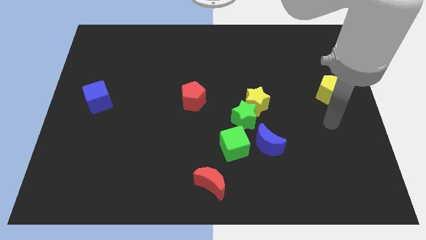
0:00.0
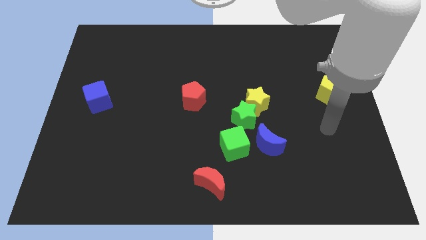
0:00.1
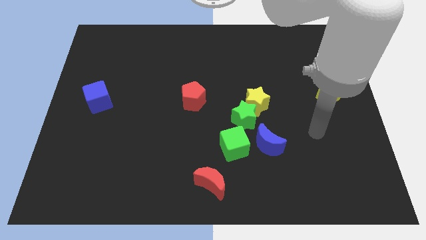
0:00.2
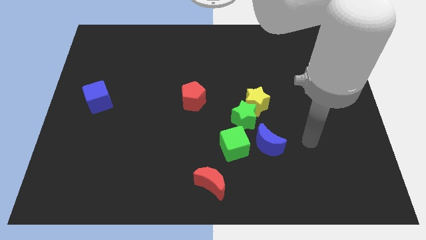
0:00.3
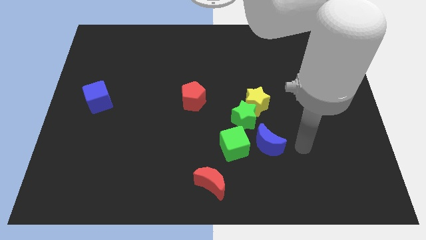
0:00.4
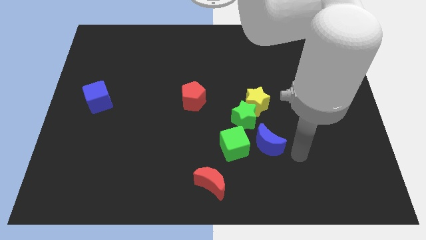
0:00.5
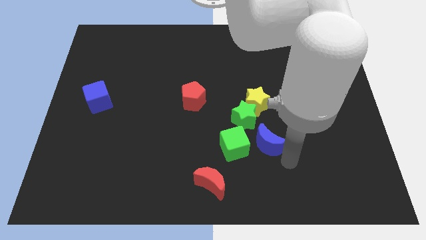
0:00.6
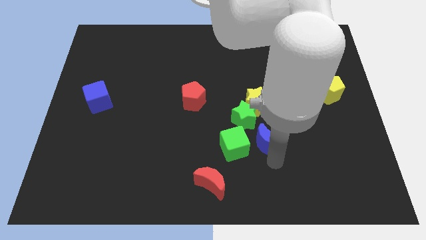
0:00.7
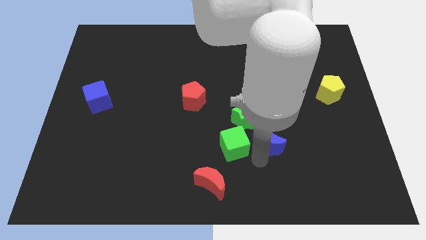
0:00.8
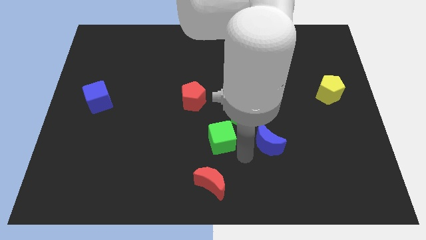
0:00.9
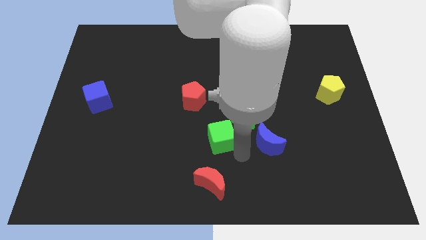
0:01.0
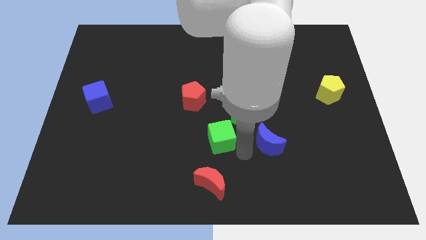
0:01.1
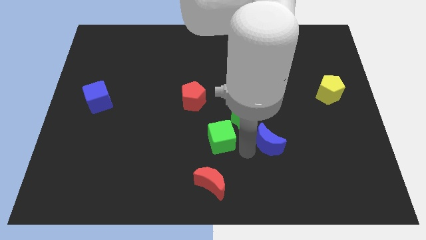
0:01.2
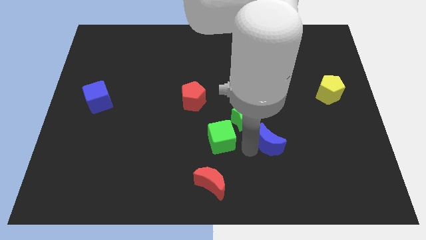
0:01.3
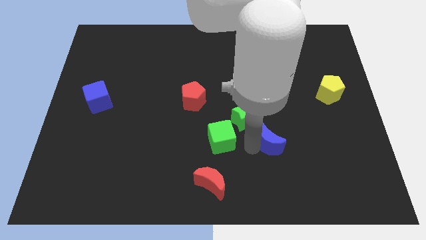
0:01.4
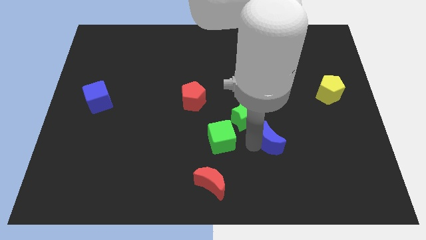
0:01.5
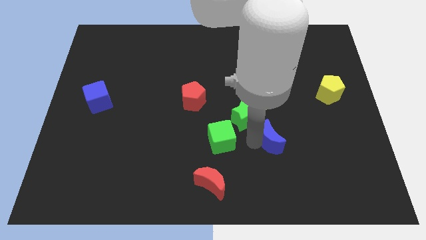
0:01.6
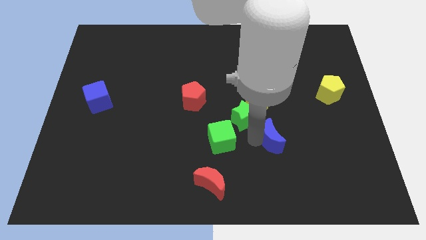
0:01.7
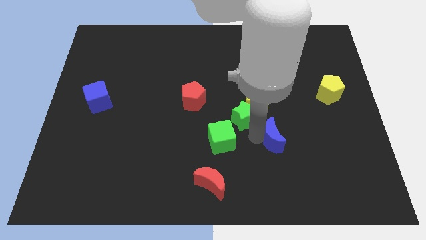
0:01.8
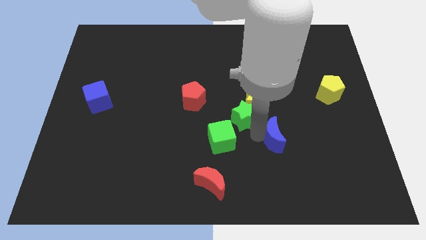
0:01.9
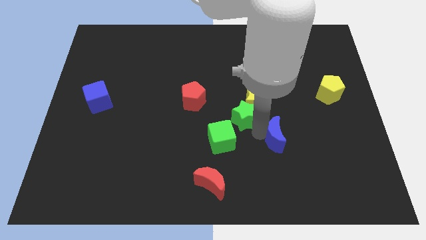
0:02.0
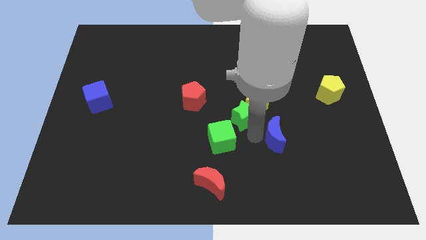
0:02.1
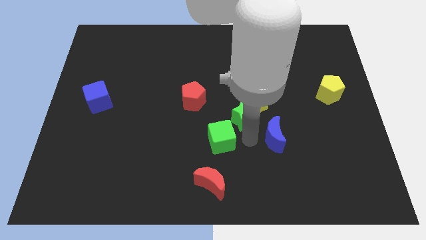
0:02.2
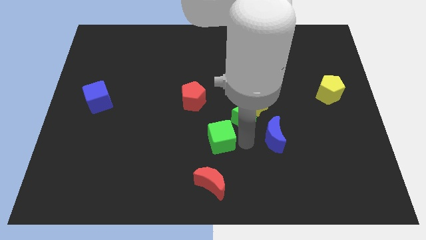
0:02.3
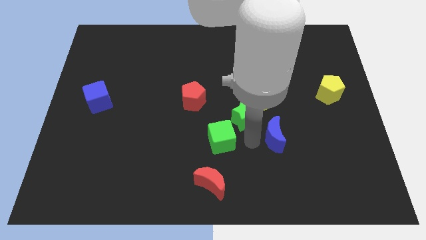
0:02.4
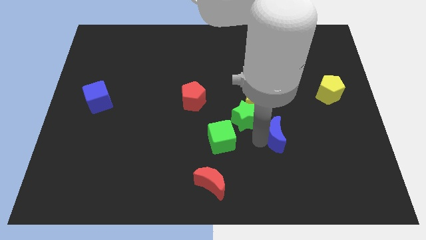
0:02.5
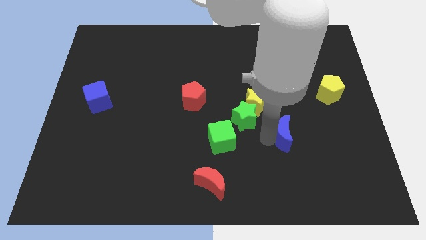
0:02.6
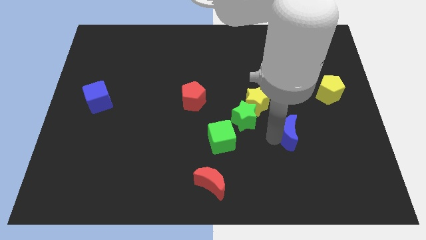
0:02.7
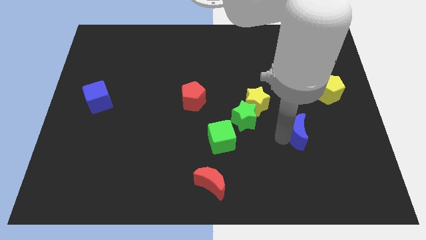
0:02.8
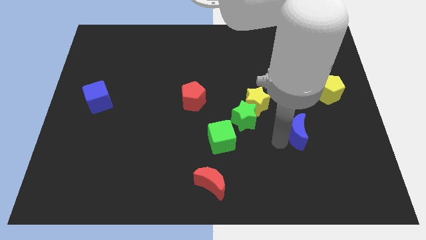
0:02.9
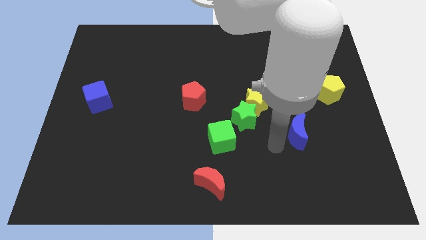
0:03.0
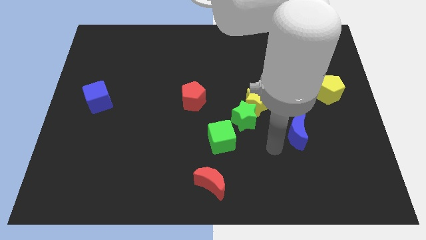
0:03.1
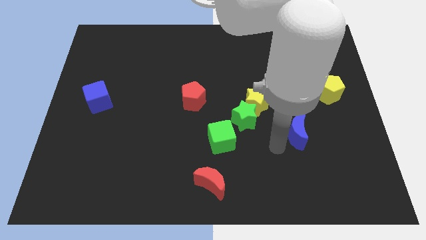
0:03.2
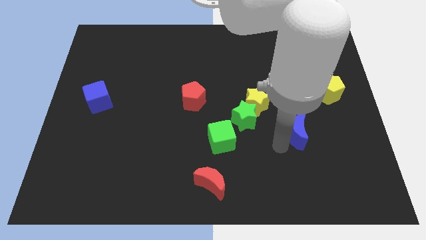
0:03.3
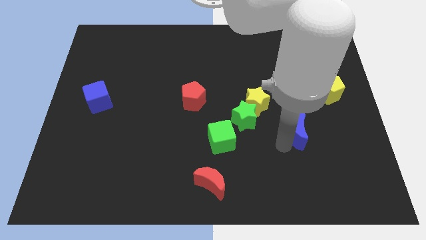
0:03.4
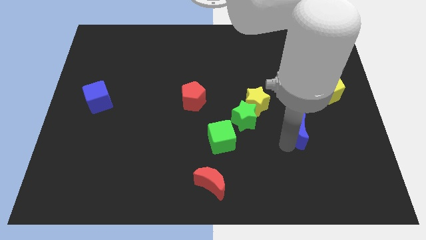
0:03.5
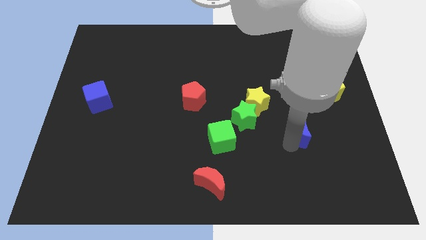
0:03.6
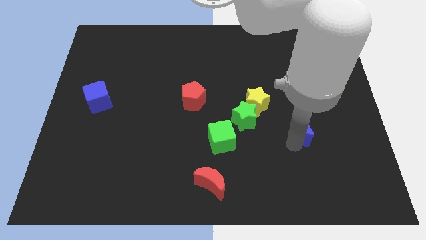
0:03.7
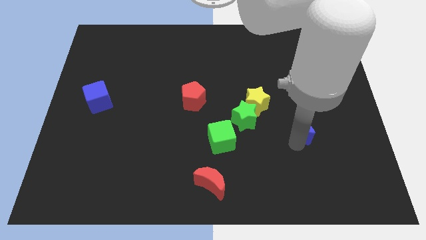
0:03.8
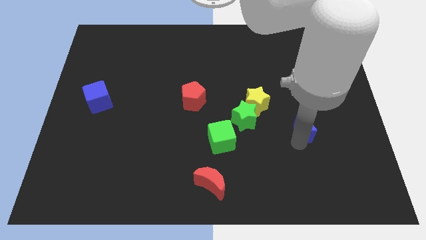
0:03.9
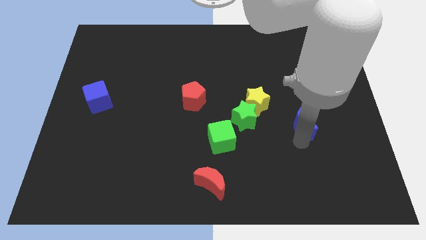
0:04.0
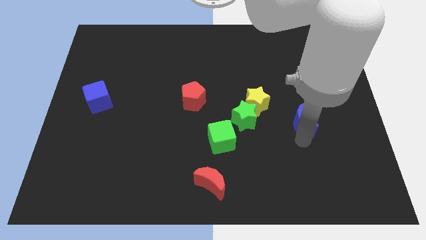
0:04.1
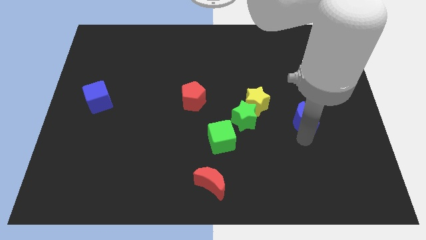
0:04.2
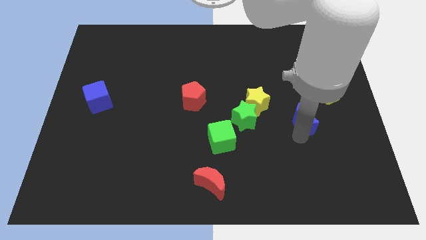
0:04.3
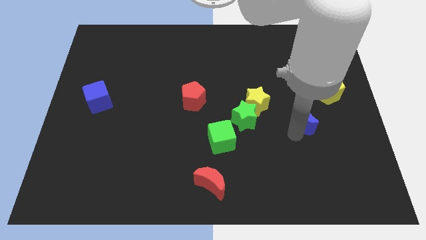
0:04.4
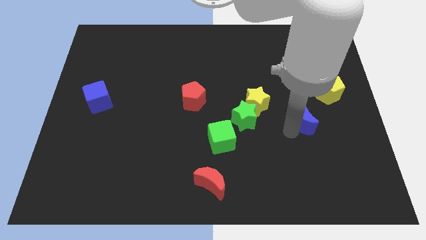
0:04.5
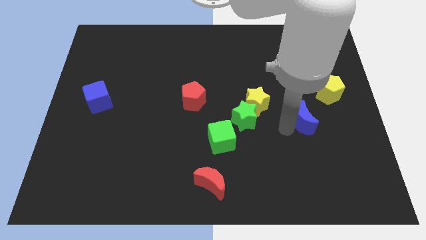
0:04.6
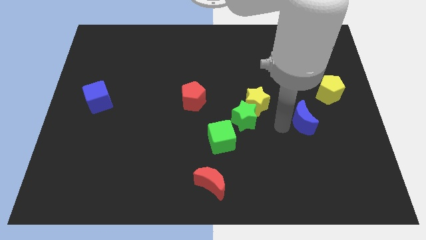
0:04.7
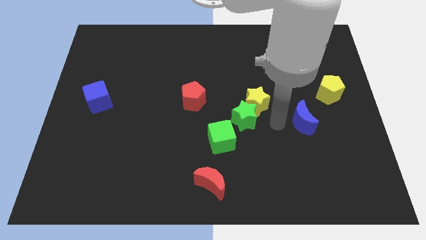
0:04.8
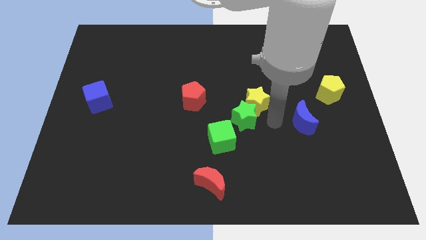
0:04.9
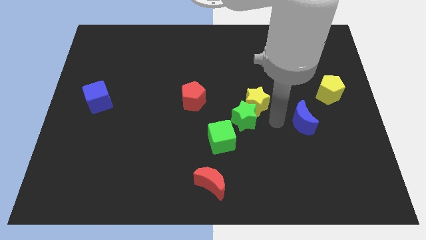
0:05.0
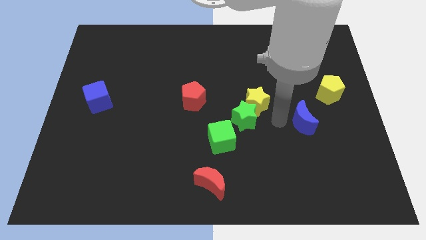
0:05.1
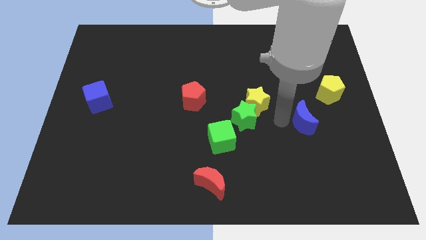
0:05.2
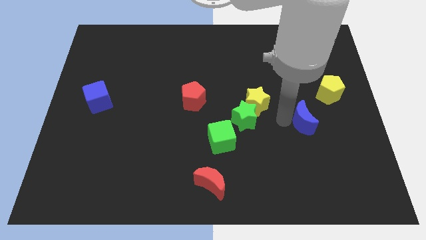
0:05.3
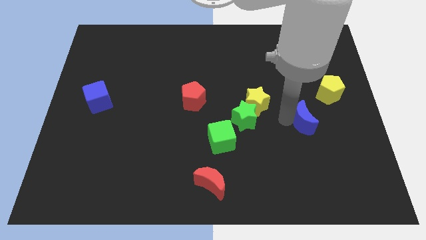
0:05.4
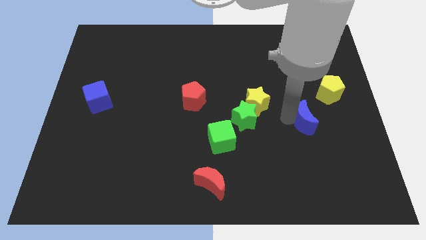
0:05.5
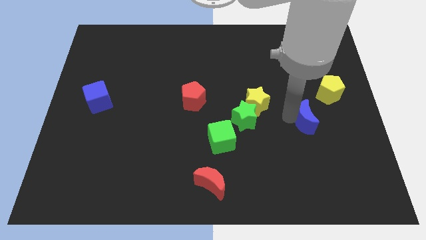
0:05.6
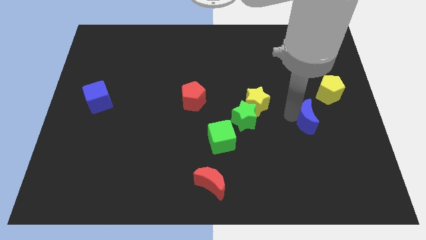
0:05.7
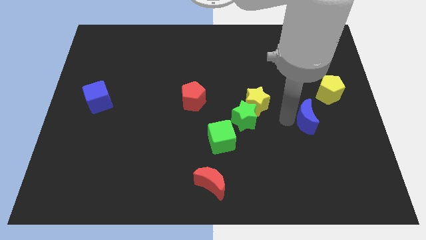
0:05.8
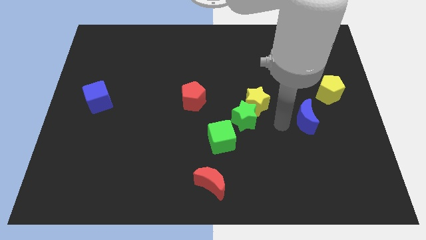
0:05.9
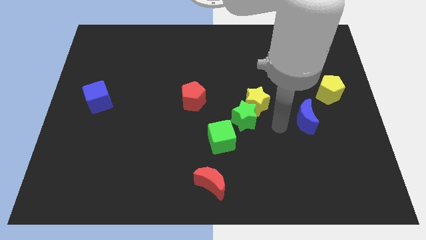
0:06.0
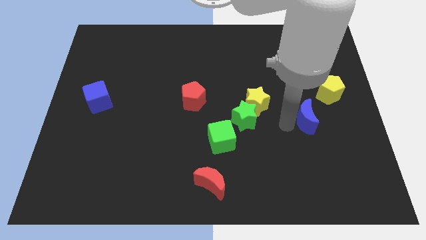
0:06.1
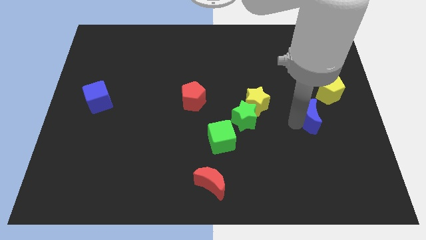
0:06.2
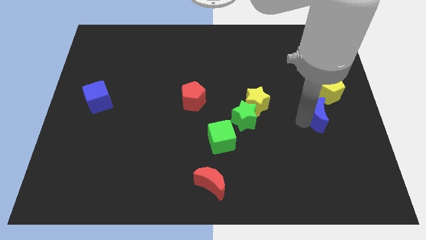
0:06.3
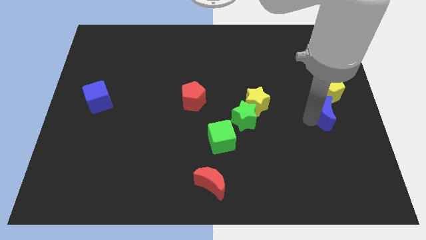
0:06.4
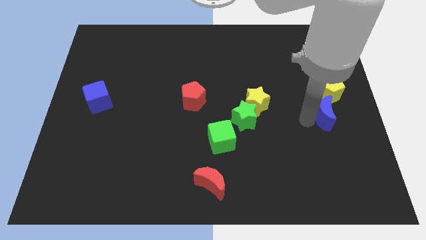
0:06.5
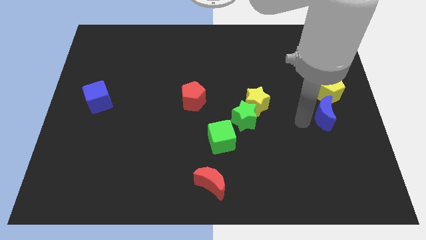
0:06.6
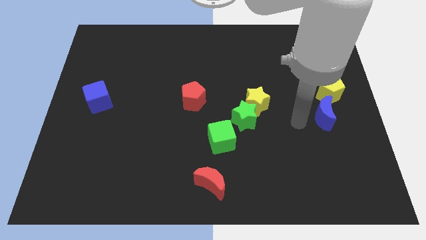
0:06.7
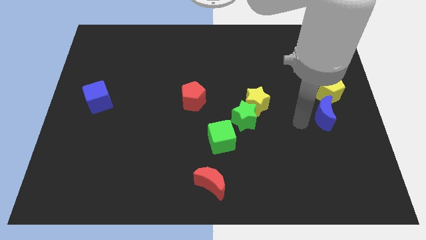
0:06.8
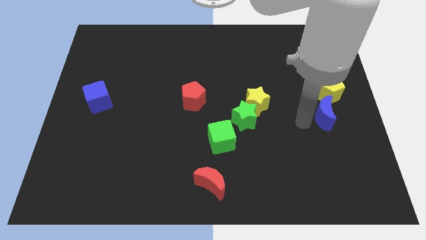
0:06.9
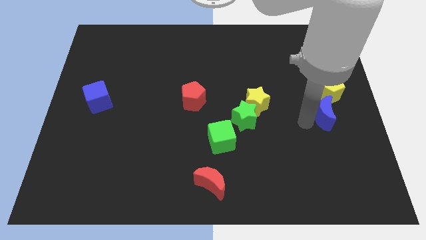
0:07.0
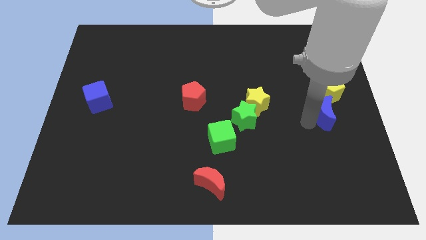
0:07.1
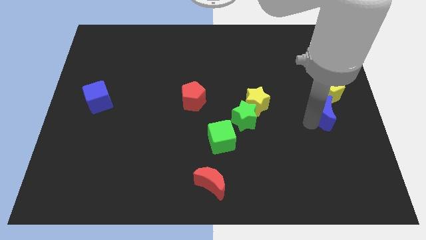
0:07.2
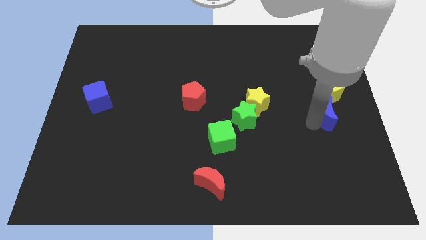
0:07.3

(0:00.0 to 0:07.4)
push the blue moon to the center right
